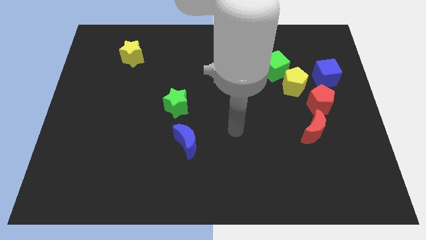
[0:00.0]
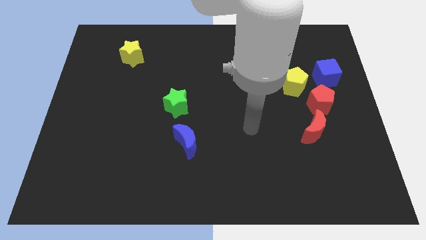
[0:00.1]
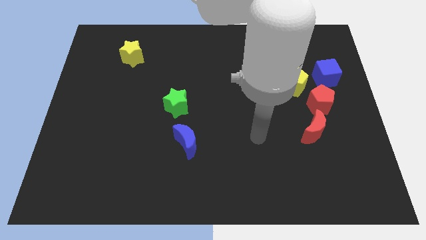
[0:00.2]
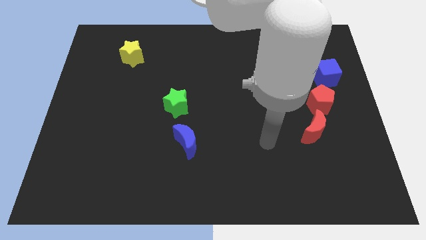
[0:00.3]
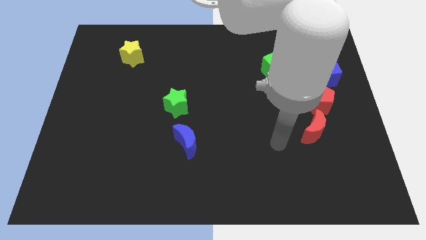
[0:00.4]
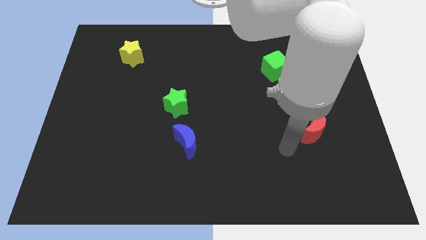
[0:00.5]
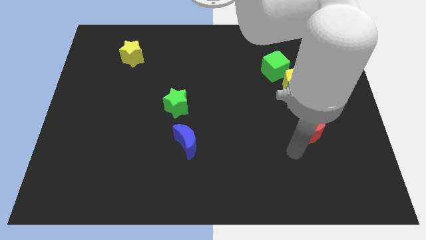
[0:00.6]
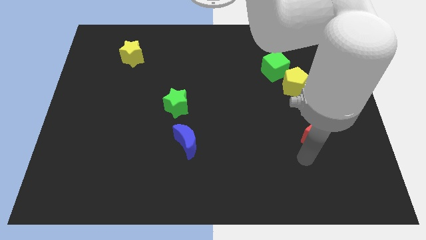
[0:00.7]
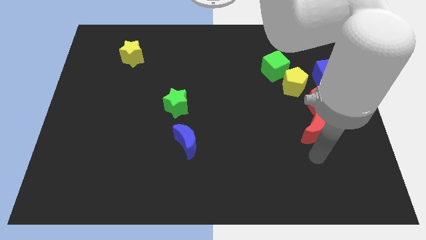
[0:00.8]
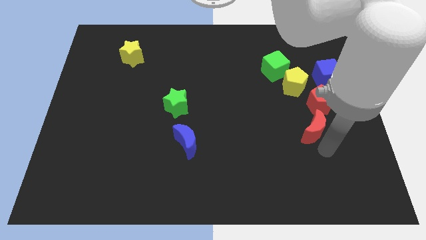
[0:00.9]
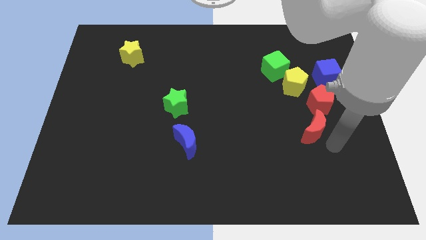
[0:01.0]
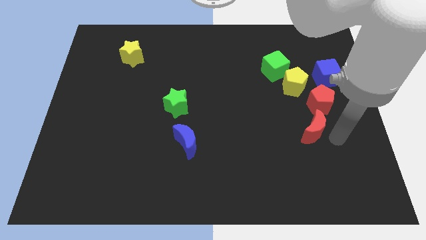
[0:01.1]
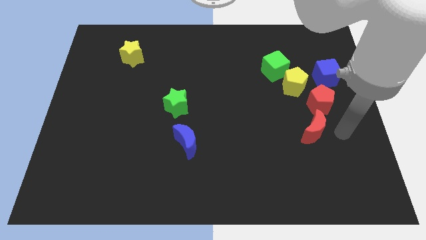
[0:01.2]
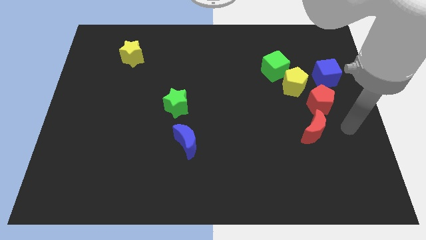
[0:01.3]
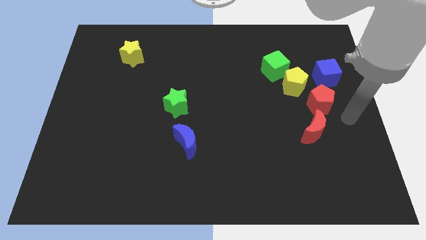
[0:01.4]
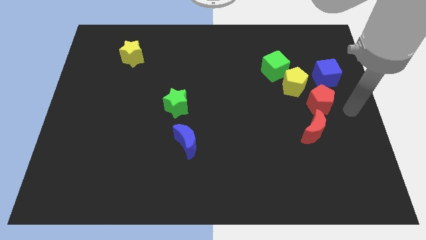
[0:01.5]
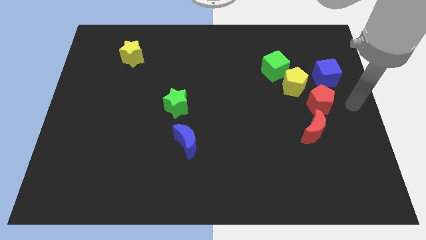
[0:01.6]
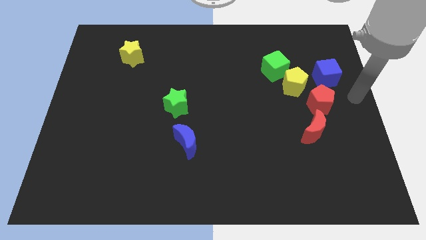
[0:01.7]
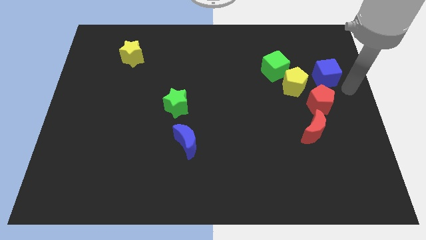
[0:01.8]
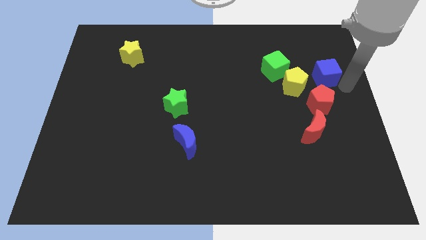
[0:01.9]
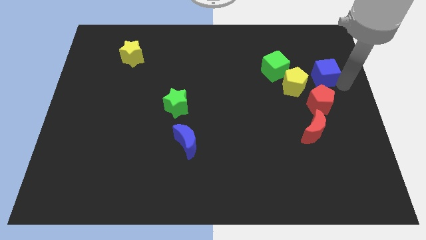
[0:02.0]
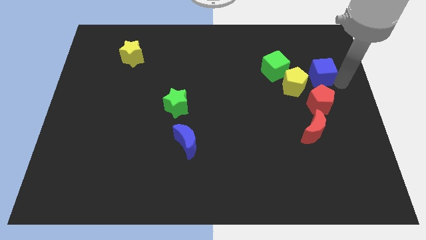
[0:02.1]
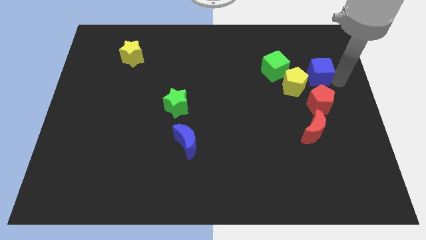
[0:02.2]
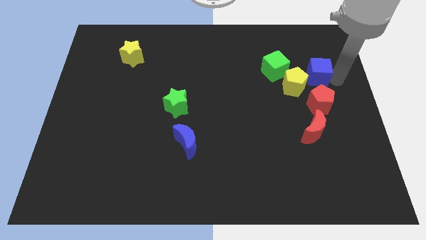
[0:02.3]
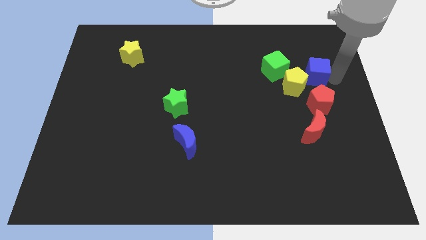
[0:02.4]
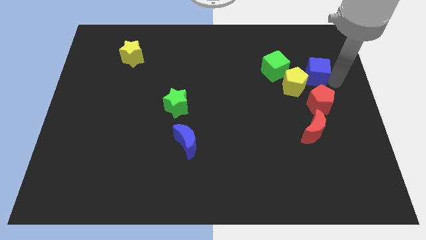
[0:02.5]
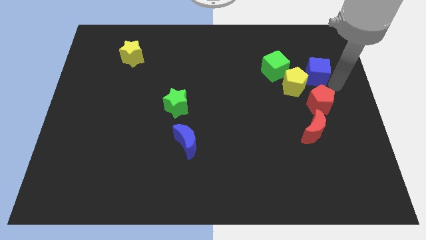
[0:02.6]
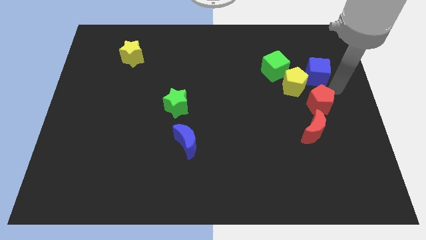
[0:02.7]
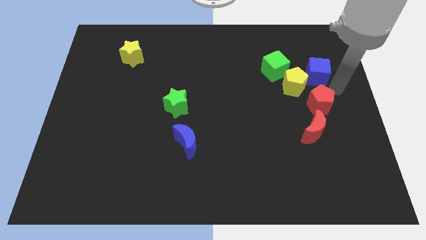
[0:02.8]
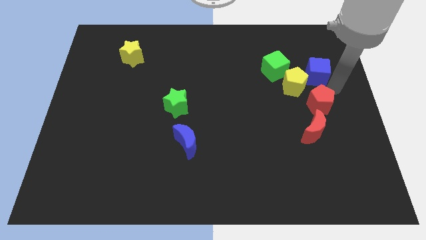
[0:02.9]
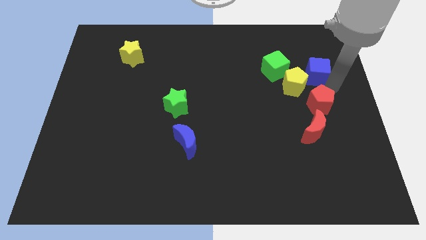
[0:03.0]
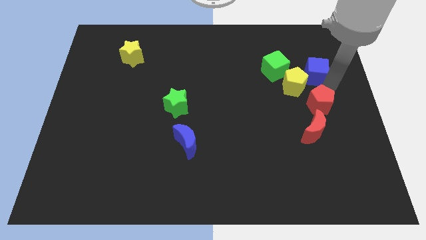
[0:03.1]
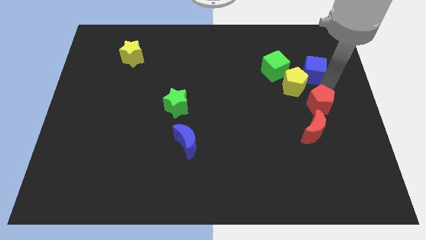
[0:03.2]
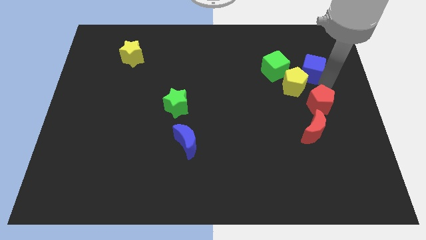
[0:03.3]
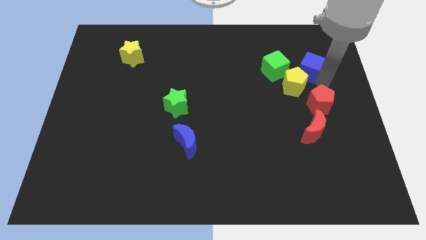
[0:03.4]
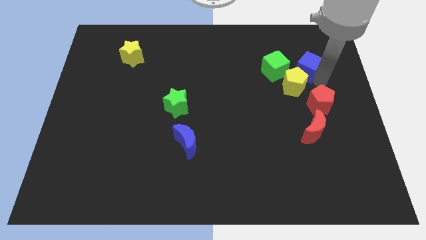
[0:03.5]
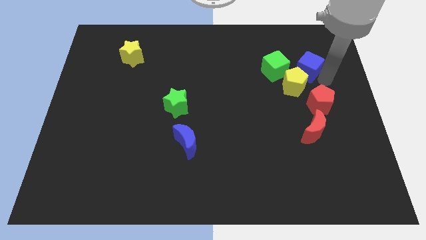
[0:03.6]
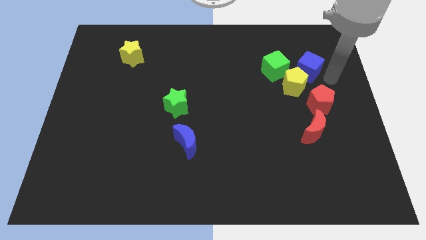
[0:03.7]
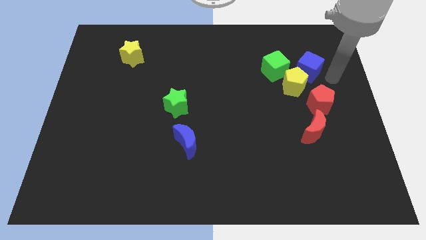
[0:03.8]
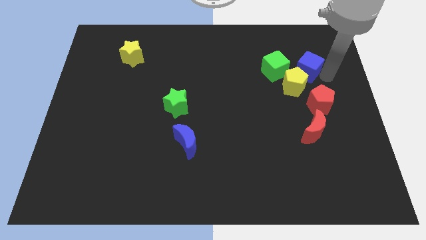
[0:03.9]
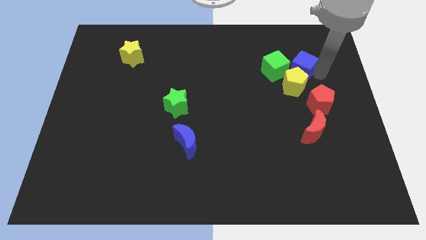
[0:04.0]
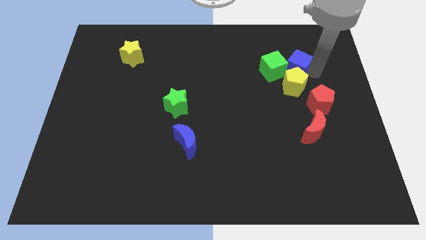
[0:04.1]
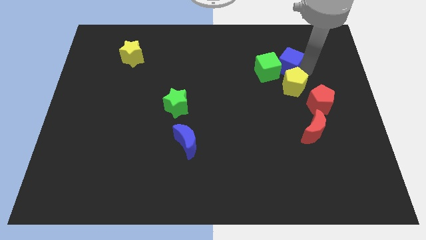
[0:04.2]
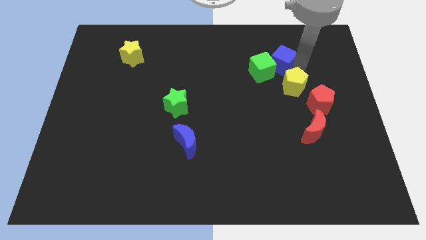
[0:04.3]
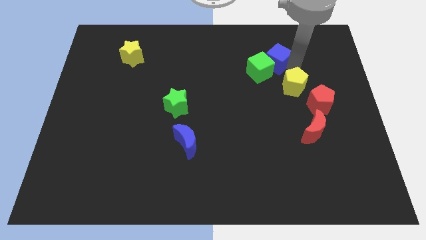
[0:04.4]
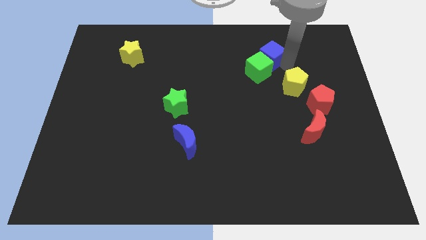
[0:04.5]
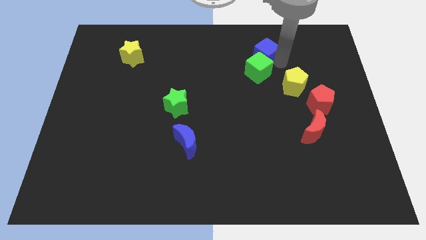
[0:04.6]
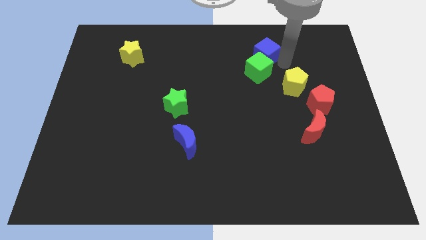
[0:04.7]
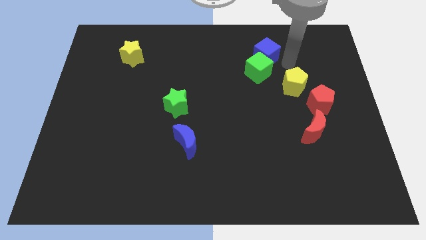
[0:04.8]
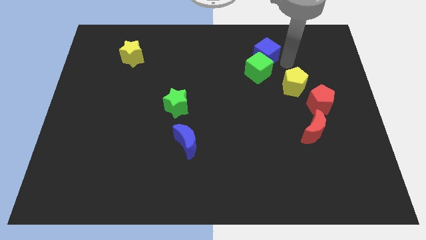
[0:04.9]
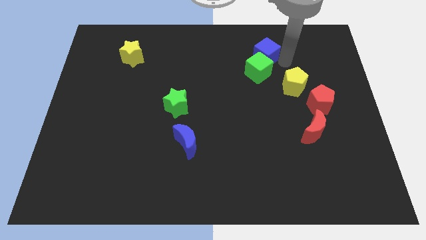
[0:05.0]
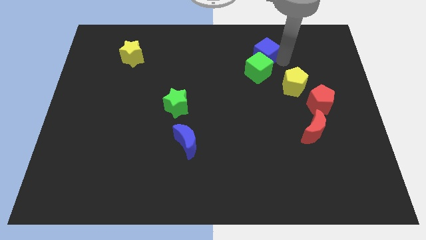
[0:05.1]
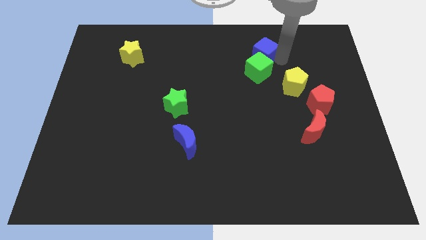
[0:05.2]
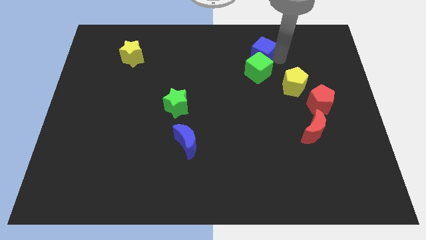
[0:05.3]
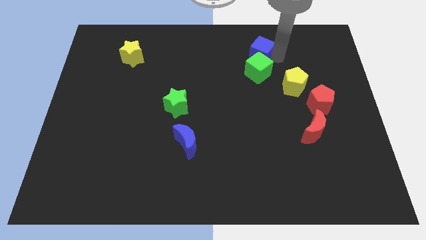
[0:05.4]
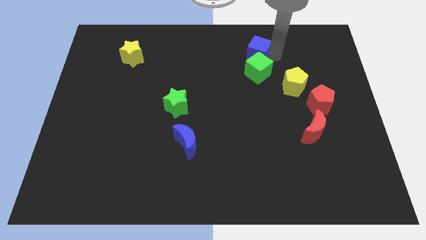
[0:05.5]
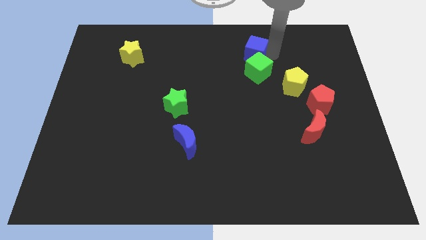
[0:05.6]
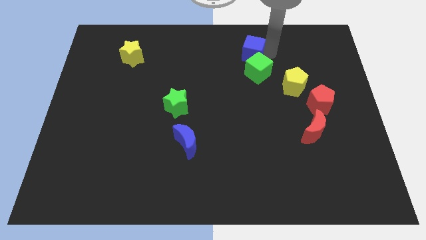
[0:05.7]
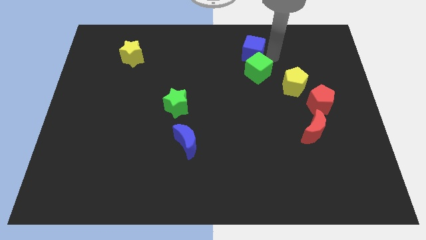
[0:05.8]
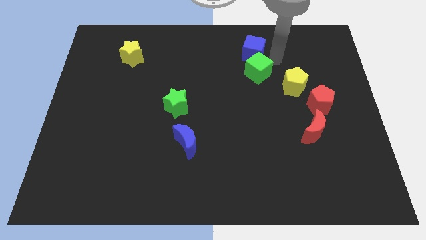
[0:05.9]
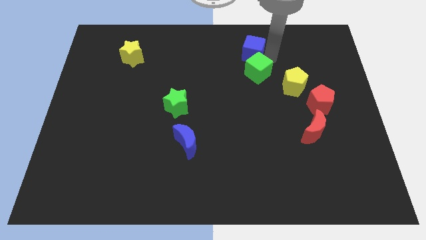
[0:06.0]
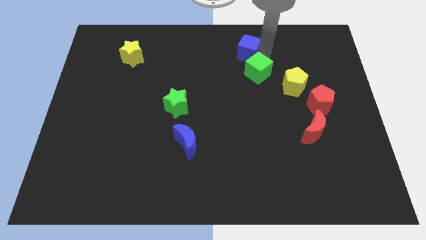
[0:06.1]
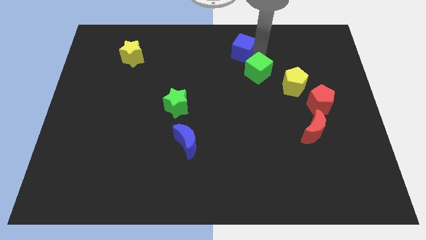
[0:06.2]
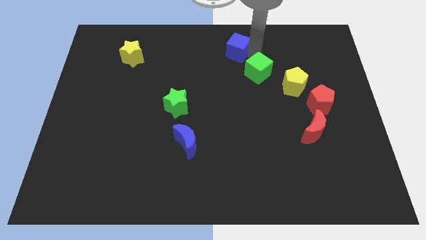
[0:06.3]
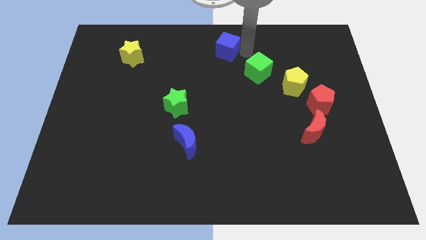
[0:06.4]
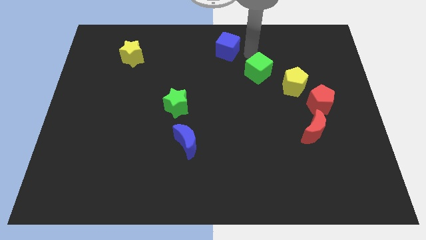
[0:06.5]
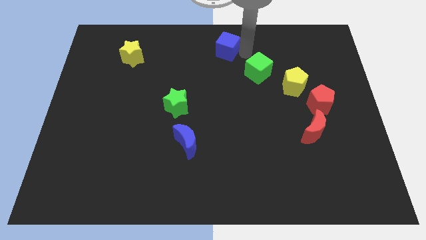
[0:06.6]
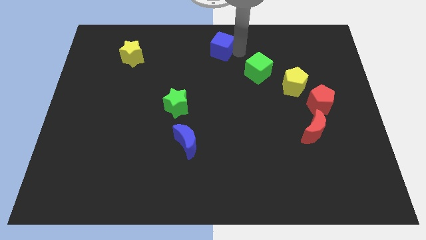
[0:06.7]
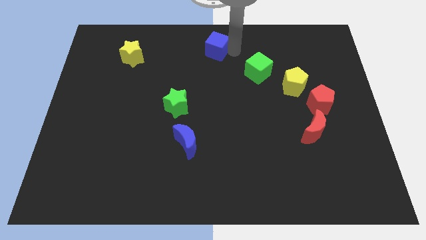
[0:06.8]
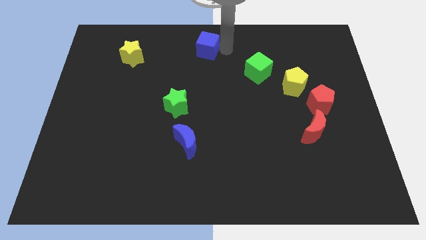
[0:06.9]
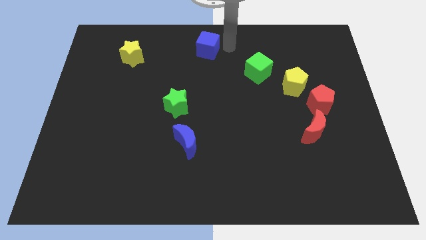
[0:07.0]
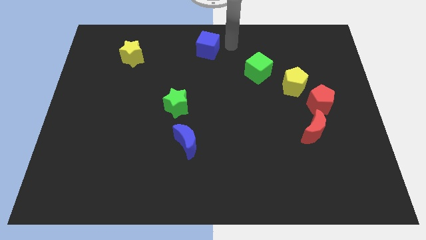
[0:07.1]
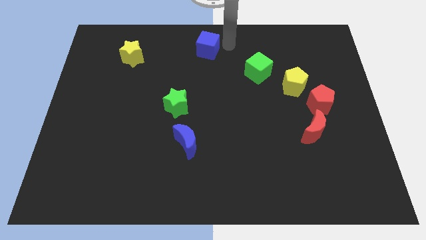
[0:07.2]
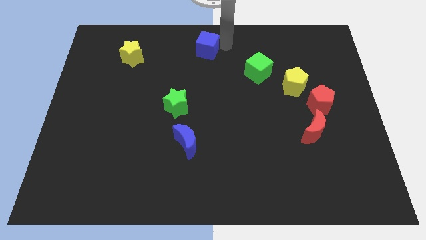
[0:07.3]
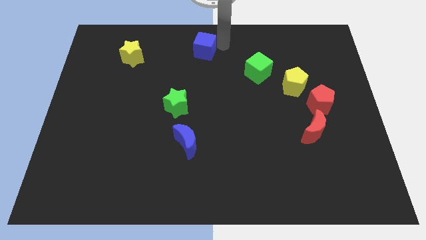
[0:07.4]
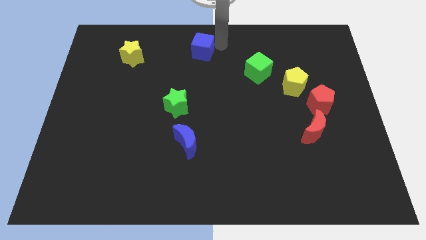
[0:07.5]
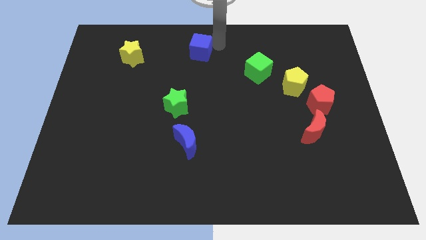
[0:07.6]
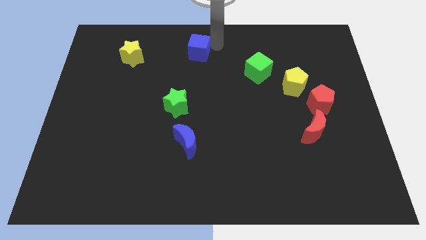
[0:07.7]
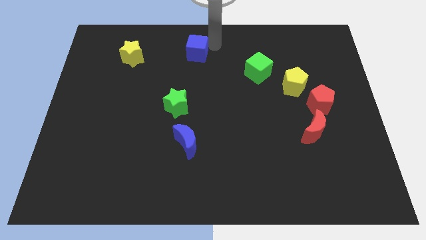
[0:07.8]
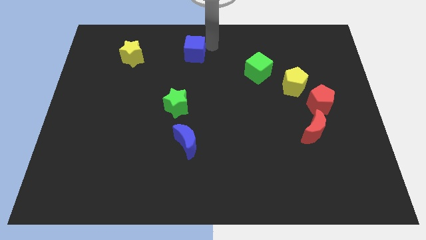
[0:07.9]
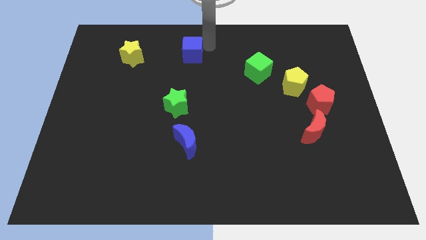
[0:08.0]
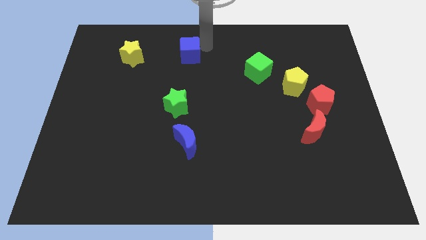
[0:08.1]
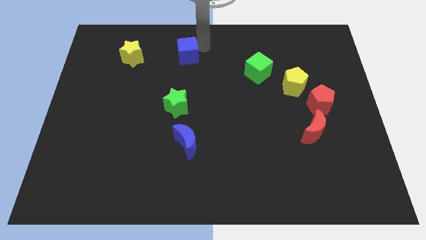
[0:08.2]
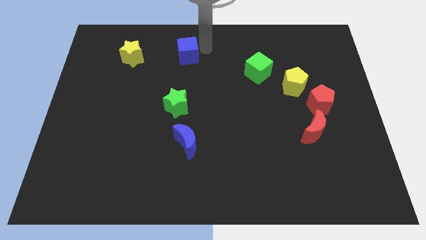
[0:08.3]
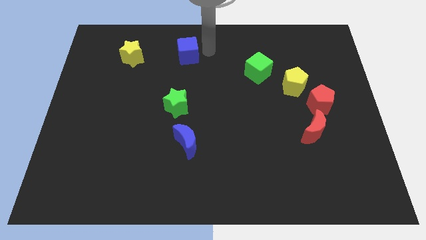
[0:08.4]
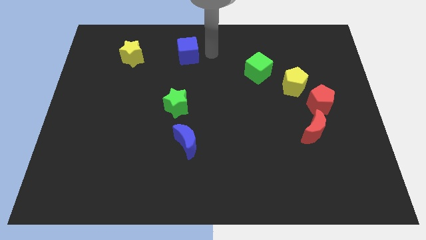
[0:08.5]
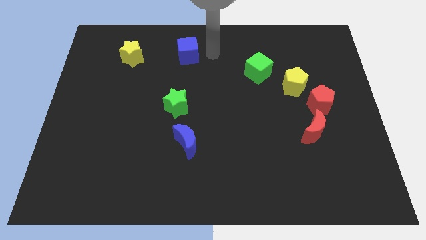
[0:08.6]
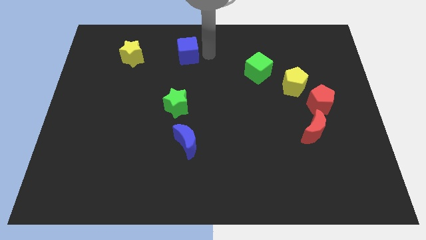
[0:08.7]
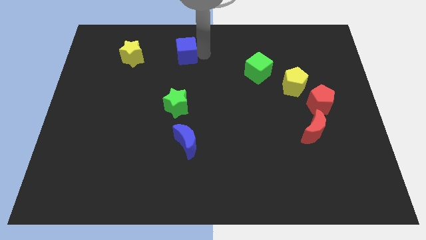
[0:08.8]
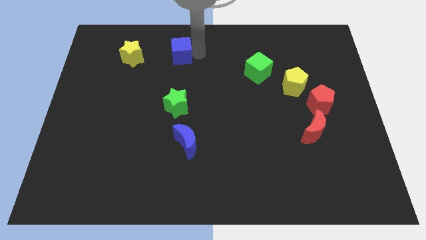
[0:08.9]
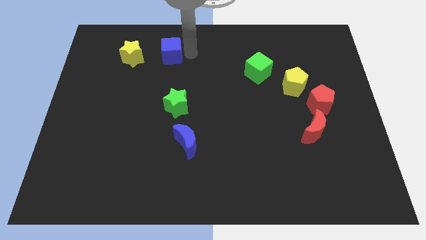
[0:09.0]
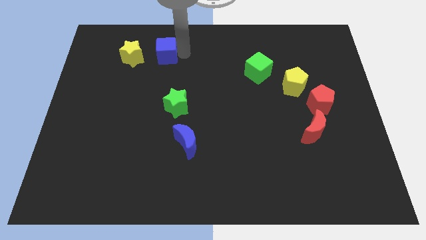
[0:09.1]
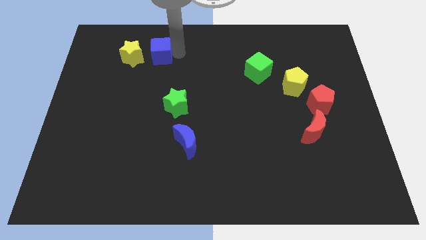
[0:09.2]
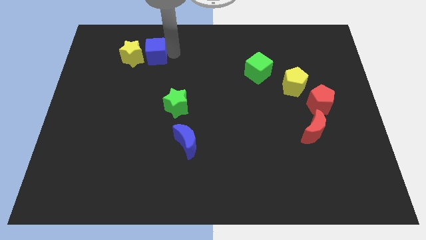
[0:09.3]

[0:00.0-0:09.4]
slide the blue cube to the yellow star
